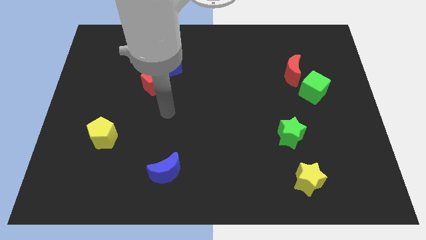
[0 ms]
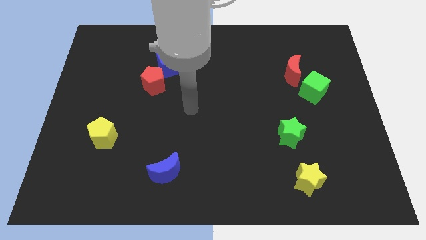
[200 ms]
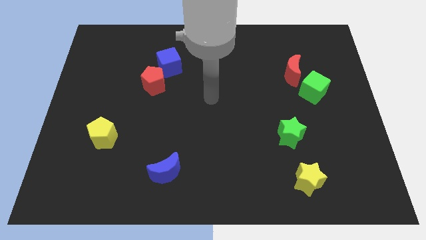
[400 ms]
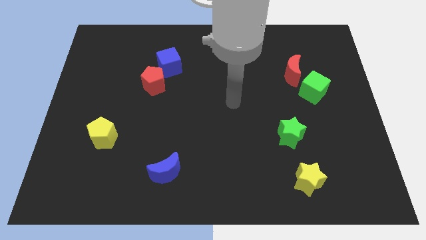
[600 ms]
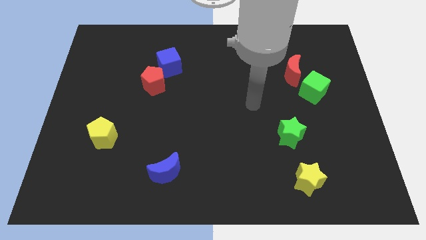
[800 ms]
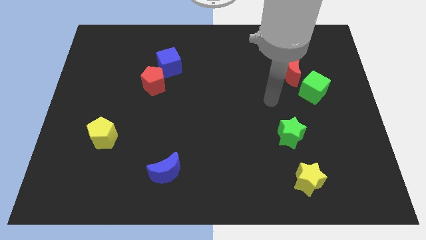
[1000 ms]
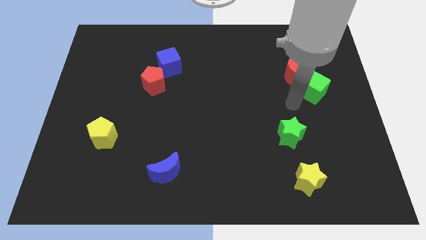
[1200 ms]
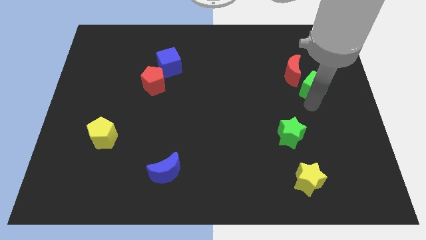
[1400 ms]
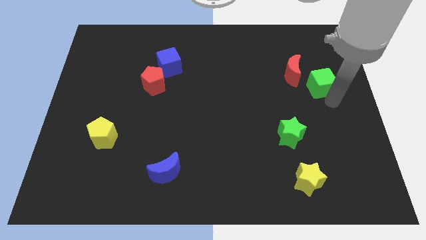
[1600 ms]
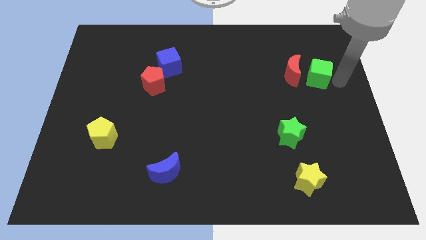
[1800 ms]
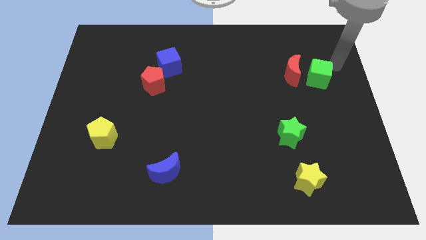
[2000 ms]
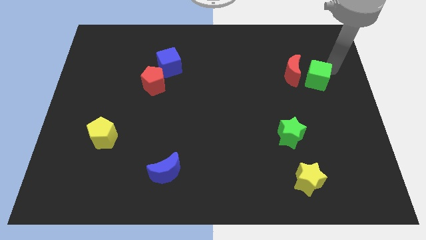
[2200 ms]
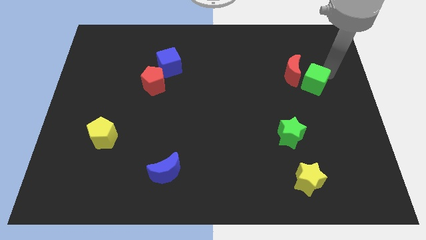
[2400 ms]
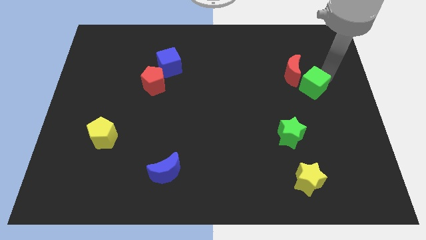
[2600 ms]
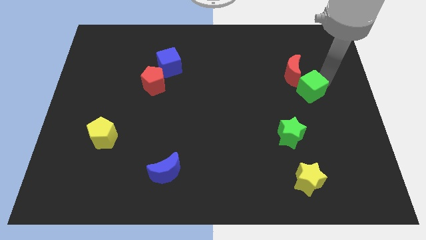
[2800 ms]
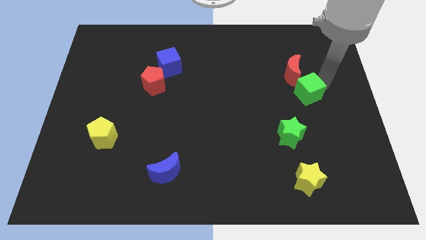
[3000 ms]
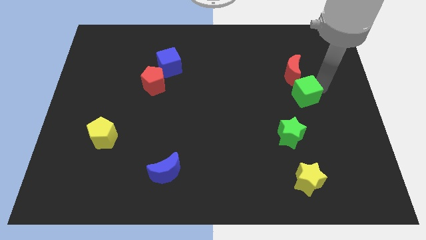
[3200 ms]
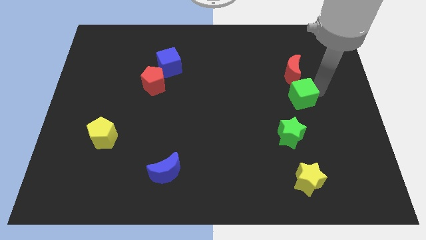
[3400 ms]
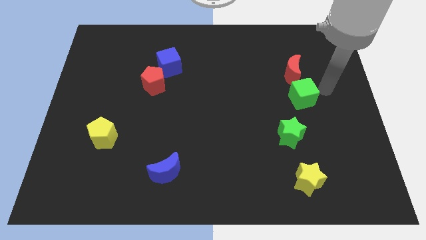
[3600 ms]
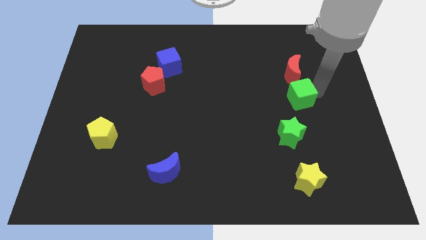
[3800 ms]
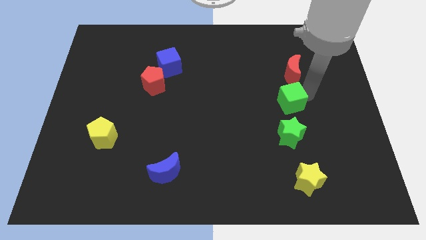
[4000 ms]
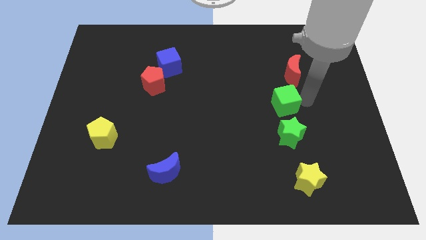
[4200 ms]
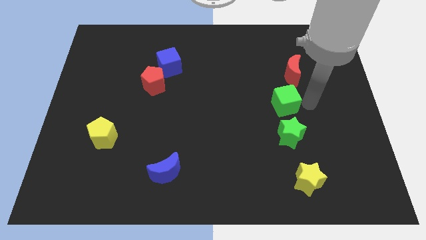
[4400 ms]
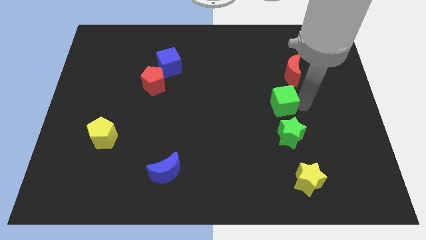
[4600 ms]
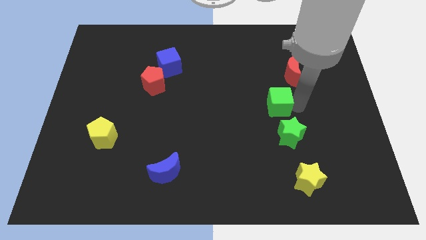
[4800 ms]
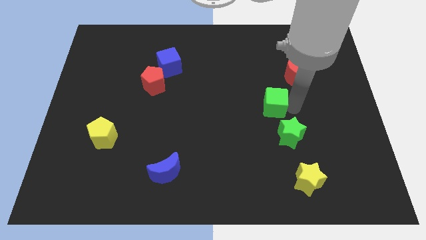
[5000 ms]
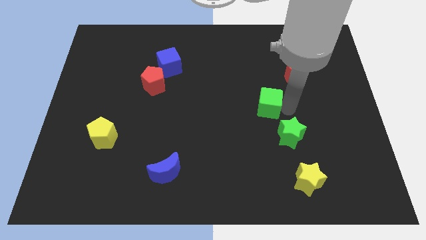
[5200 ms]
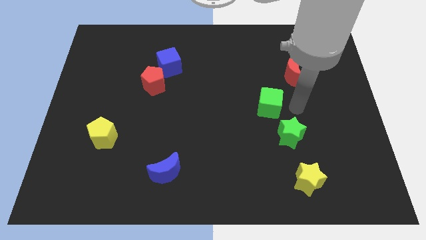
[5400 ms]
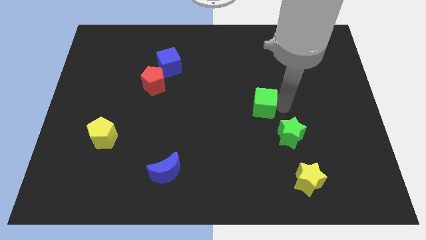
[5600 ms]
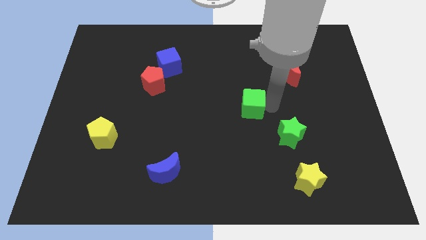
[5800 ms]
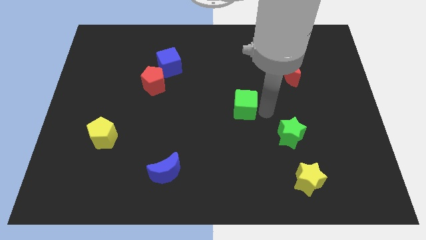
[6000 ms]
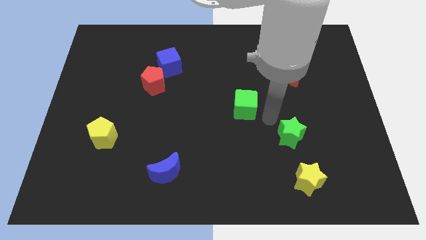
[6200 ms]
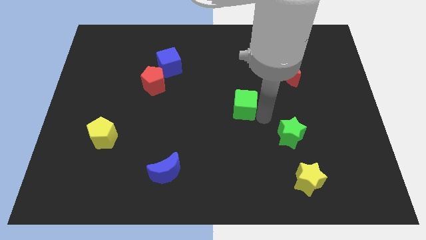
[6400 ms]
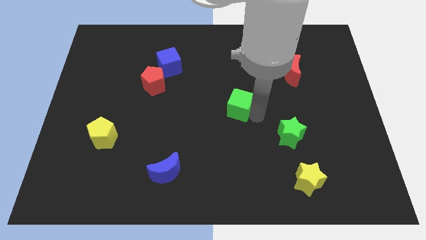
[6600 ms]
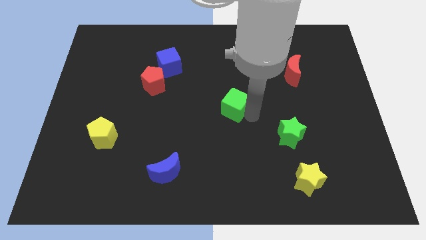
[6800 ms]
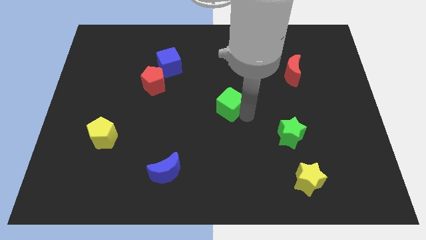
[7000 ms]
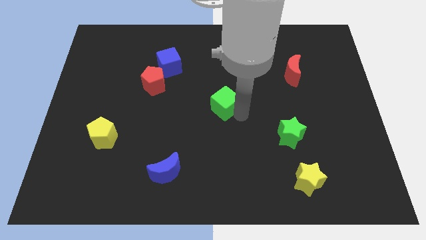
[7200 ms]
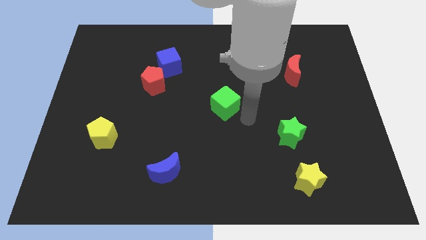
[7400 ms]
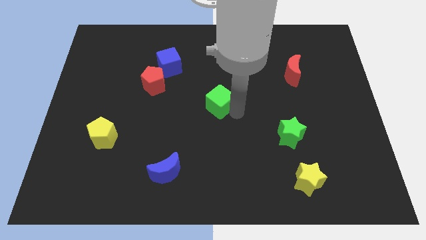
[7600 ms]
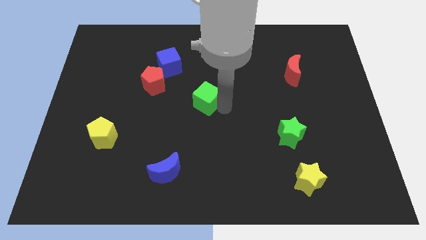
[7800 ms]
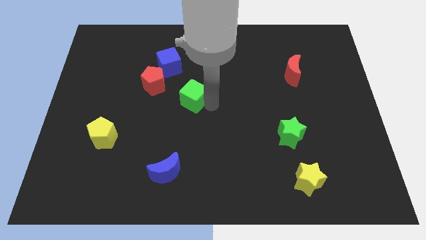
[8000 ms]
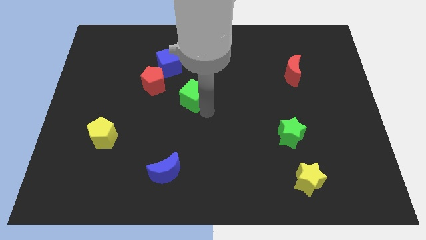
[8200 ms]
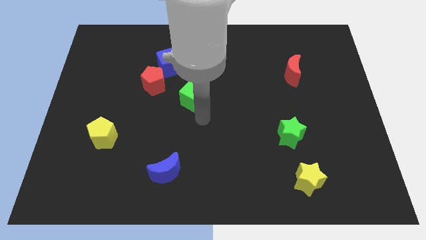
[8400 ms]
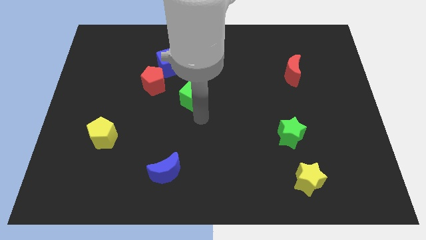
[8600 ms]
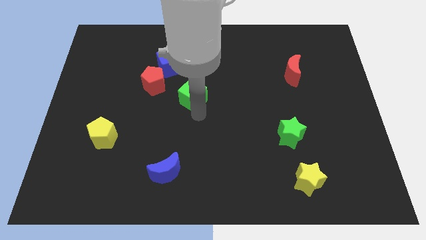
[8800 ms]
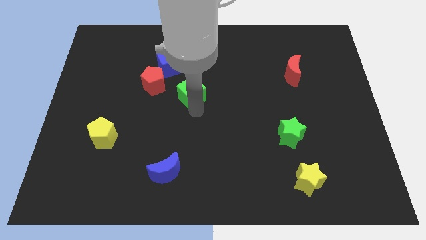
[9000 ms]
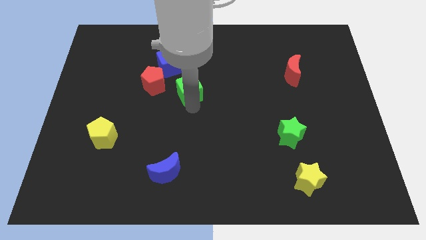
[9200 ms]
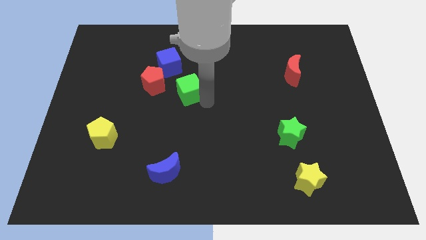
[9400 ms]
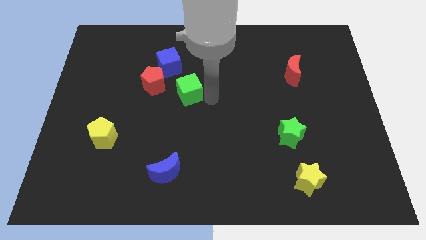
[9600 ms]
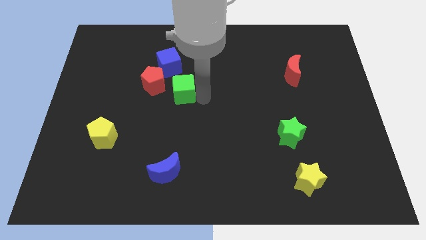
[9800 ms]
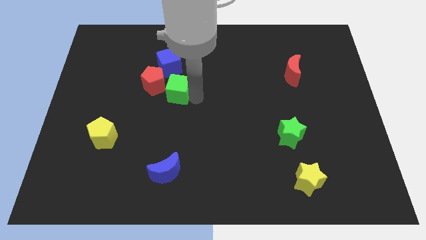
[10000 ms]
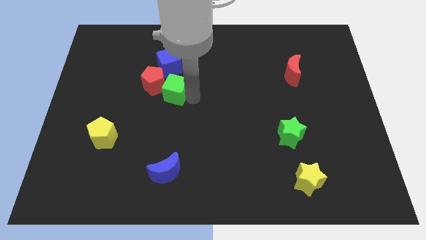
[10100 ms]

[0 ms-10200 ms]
push the green cube close to the red pentagon

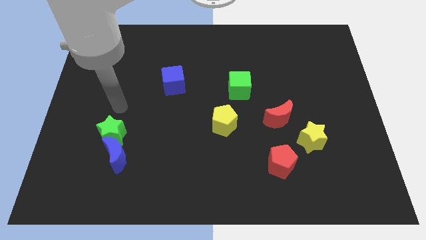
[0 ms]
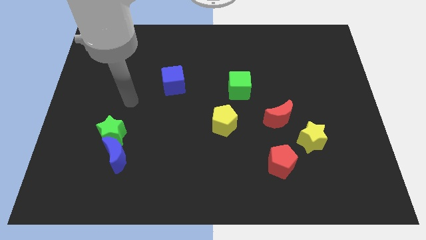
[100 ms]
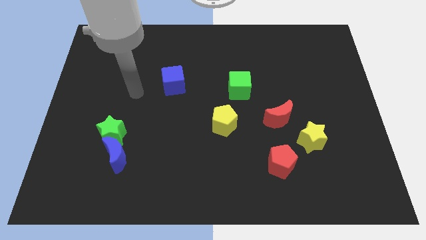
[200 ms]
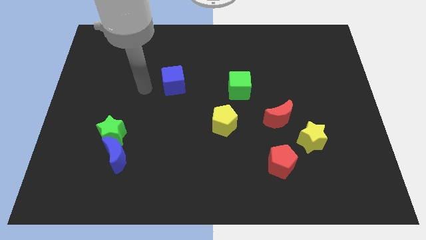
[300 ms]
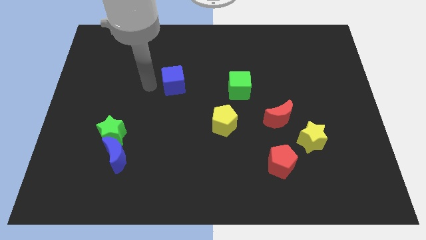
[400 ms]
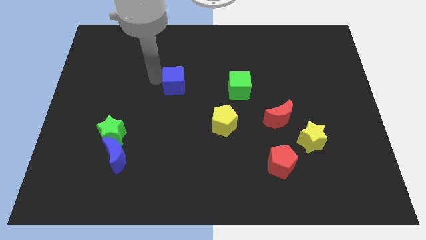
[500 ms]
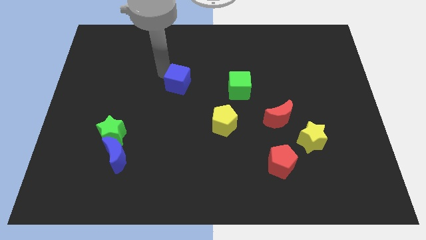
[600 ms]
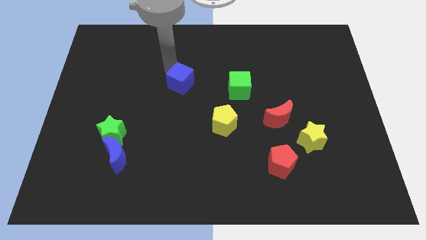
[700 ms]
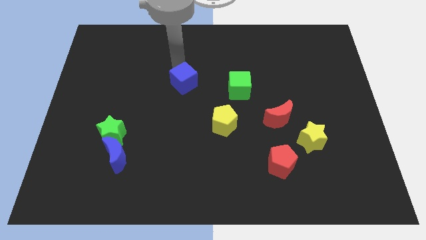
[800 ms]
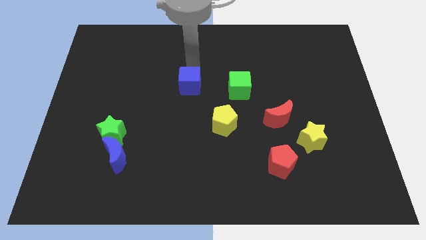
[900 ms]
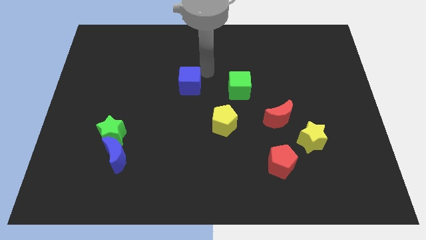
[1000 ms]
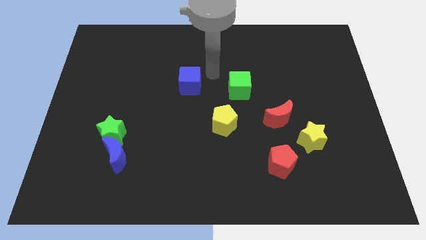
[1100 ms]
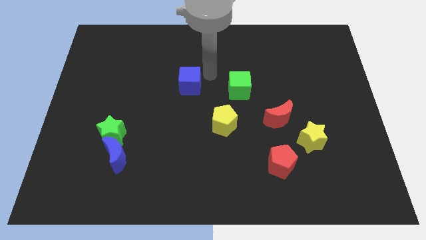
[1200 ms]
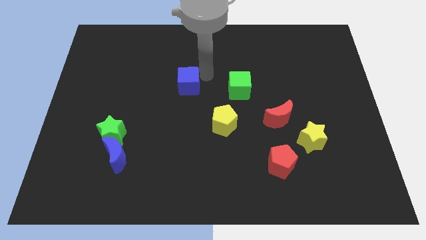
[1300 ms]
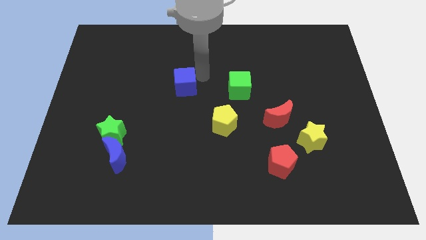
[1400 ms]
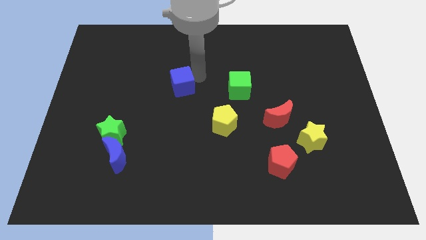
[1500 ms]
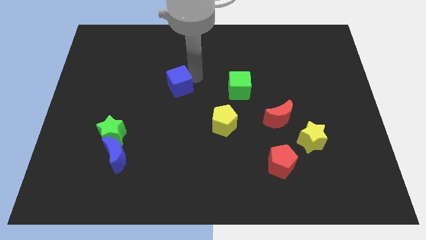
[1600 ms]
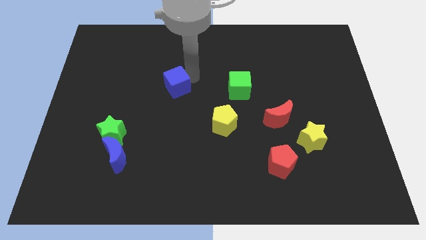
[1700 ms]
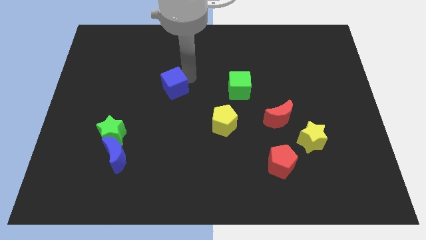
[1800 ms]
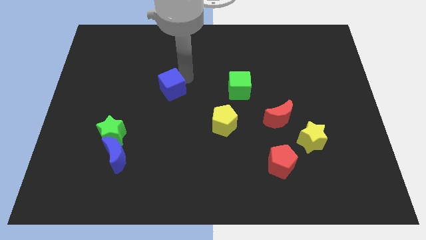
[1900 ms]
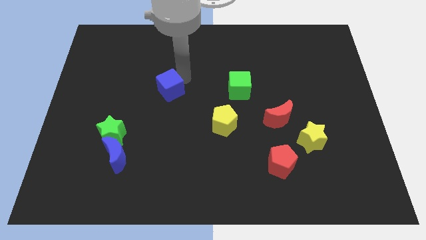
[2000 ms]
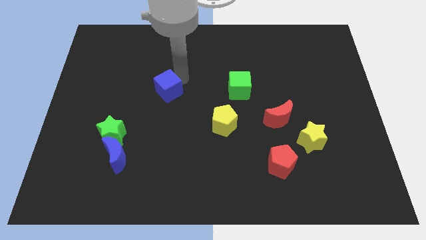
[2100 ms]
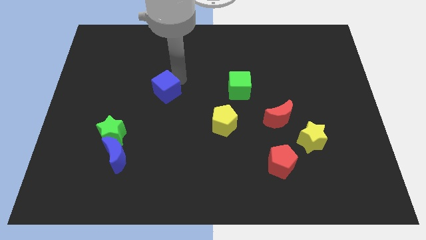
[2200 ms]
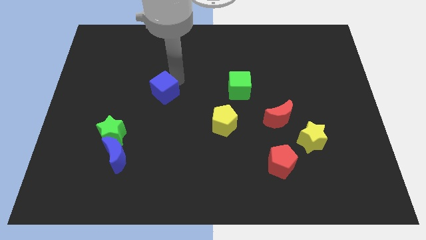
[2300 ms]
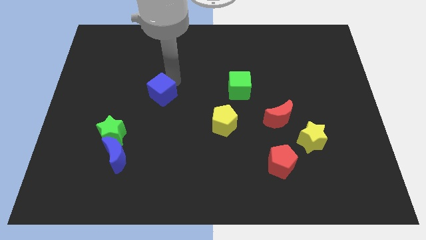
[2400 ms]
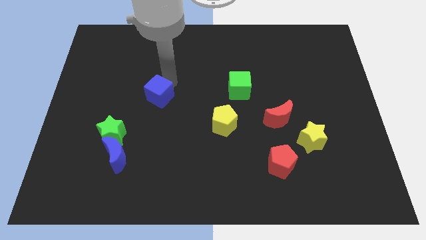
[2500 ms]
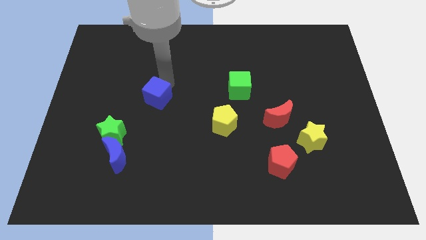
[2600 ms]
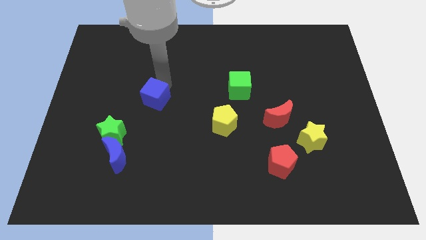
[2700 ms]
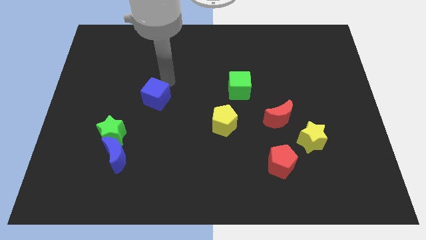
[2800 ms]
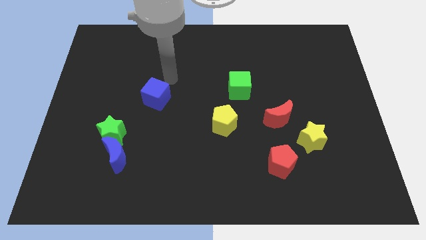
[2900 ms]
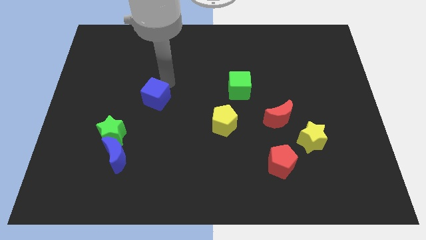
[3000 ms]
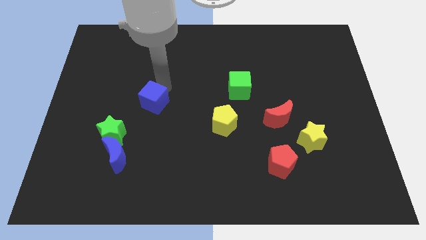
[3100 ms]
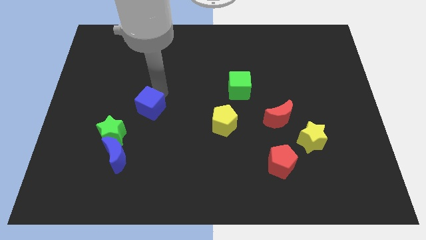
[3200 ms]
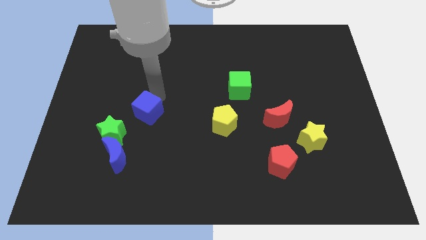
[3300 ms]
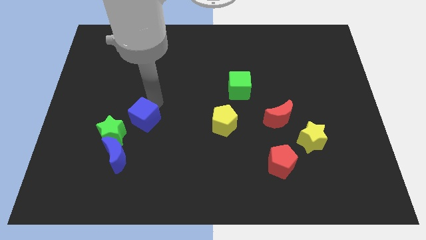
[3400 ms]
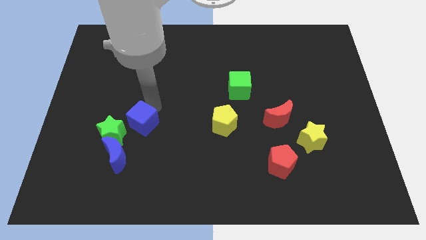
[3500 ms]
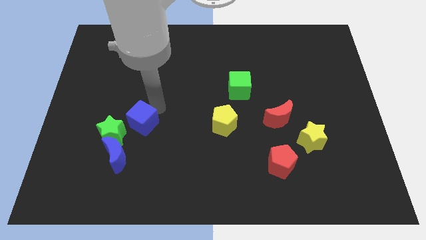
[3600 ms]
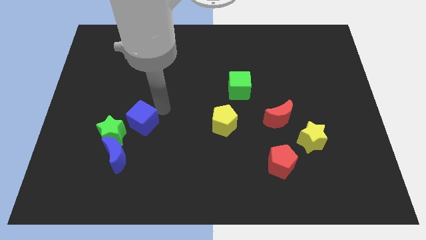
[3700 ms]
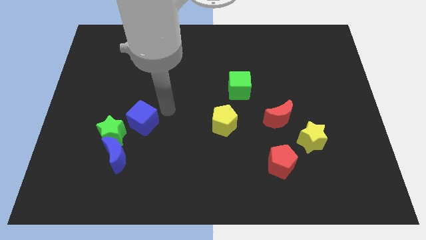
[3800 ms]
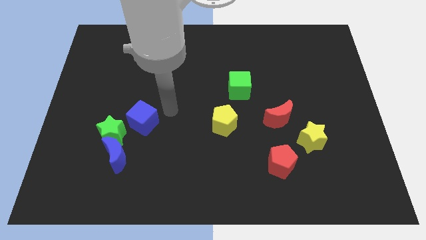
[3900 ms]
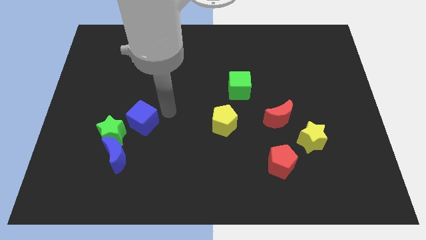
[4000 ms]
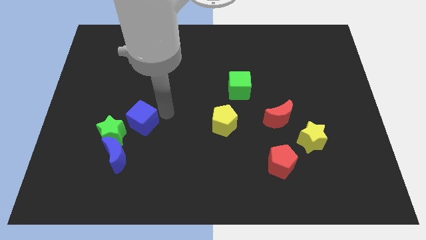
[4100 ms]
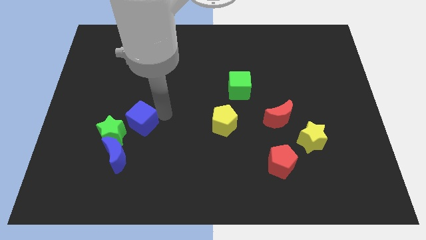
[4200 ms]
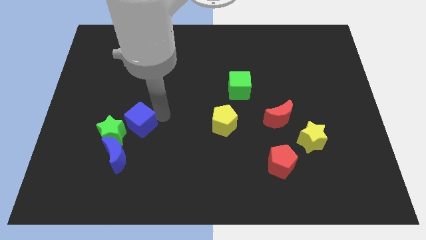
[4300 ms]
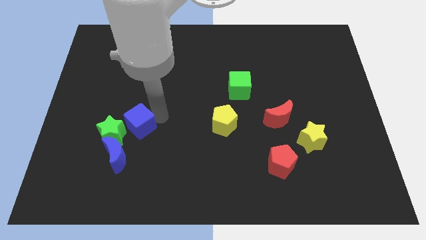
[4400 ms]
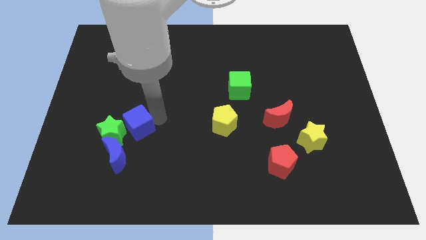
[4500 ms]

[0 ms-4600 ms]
move the blue cube close to the green star
